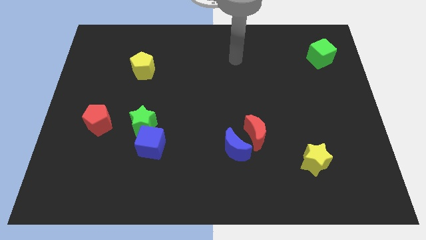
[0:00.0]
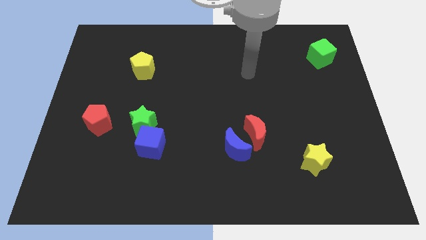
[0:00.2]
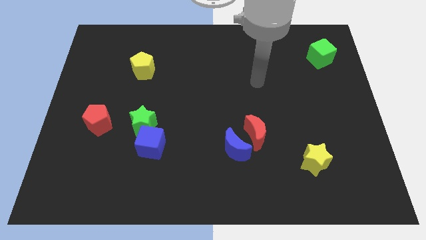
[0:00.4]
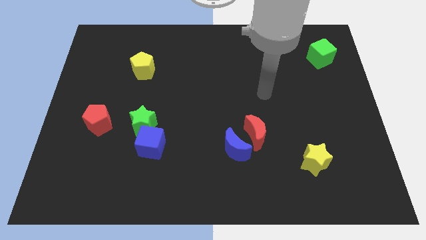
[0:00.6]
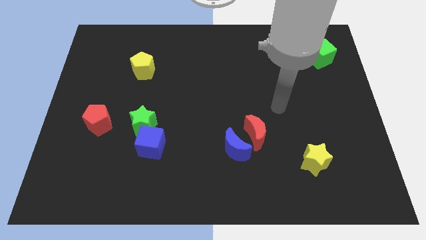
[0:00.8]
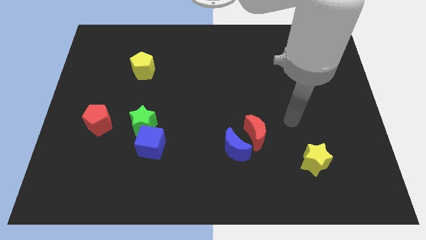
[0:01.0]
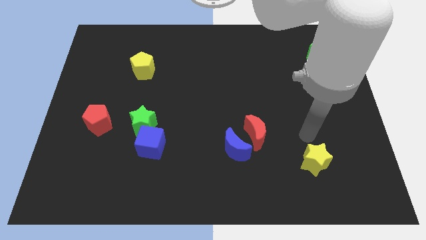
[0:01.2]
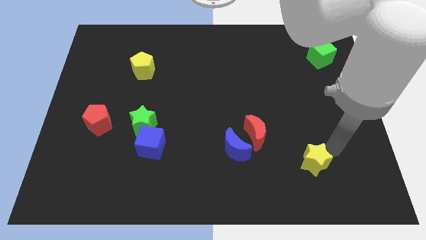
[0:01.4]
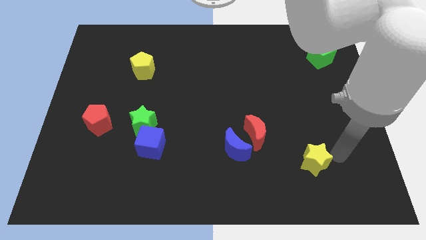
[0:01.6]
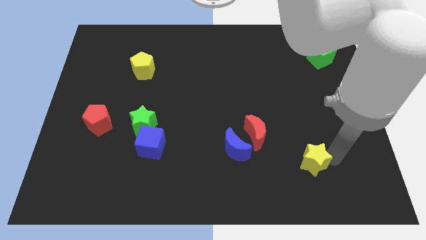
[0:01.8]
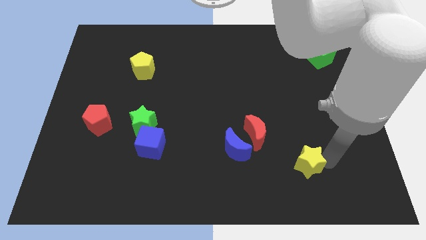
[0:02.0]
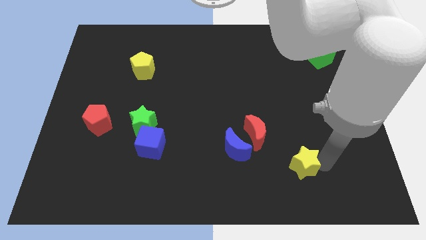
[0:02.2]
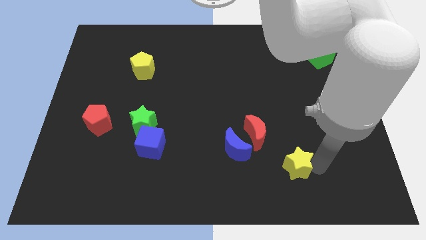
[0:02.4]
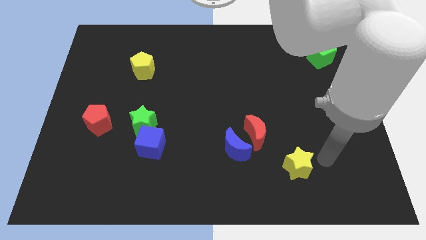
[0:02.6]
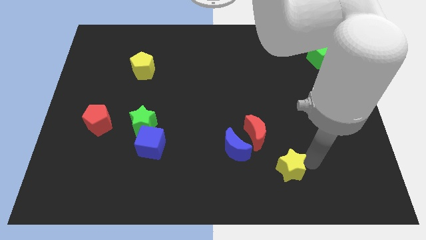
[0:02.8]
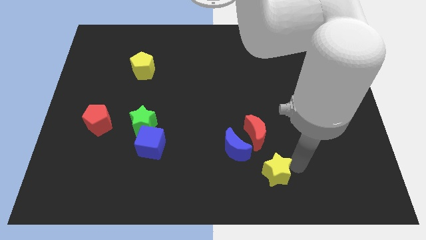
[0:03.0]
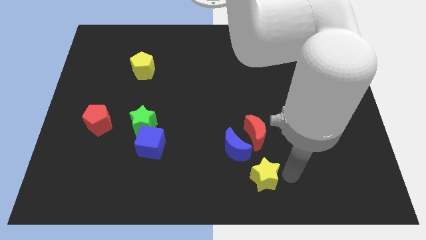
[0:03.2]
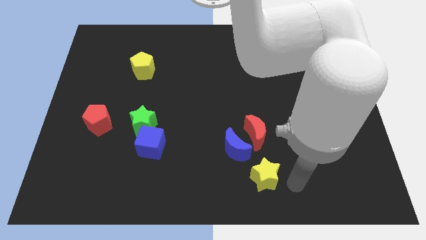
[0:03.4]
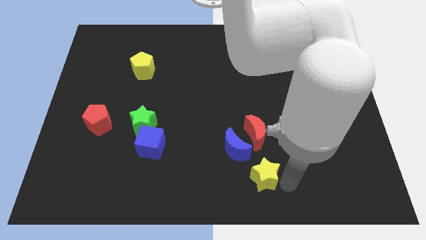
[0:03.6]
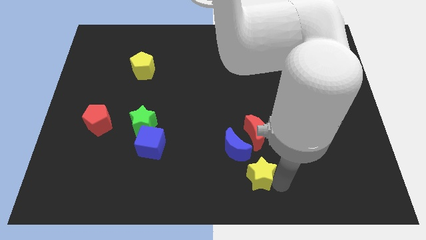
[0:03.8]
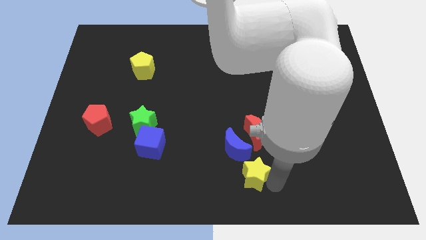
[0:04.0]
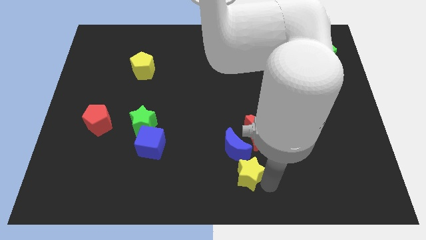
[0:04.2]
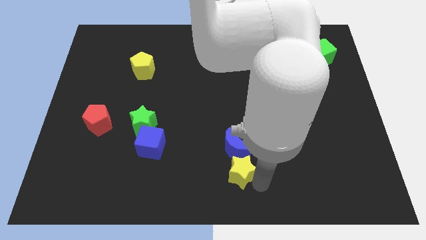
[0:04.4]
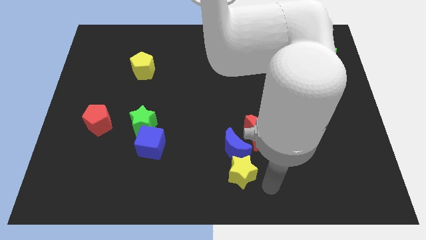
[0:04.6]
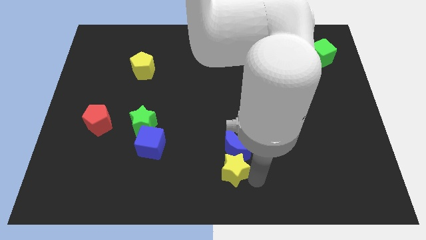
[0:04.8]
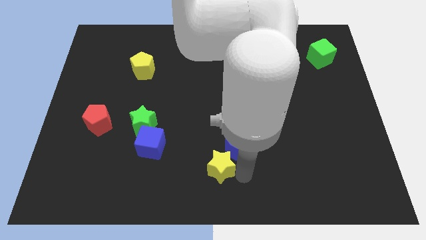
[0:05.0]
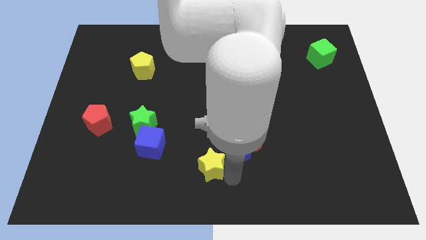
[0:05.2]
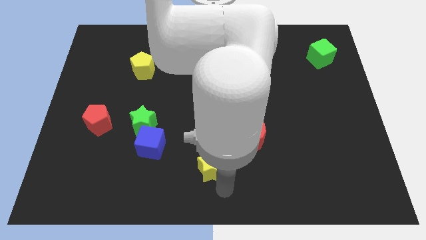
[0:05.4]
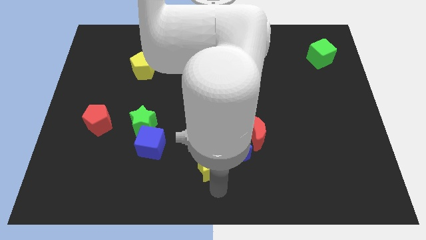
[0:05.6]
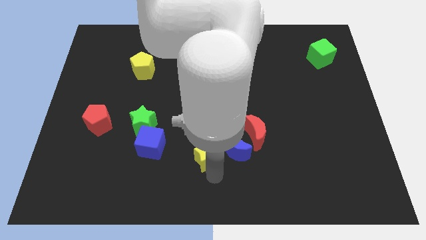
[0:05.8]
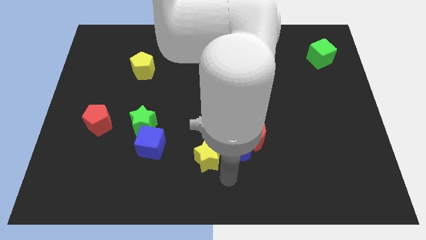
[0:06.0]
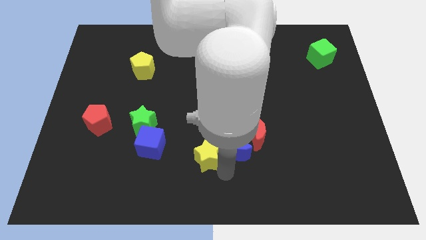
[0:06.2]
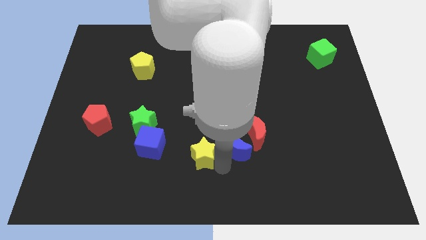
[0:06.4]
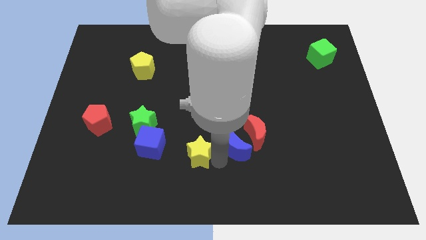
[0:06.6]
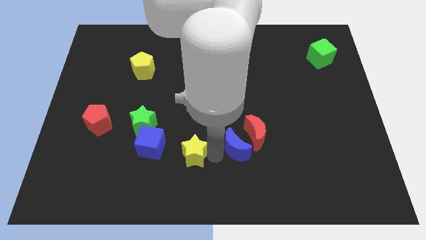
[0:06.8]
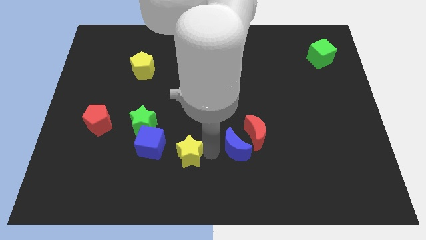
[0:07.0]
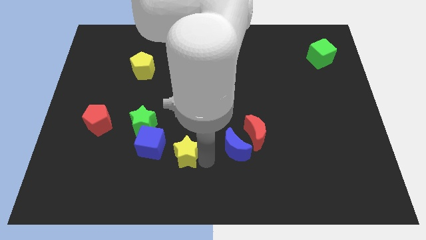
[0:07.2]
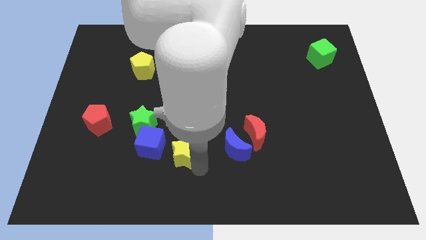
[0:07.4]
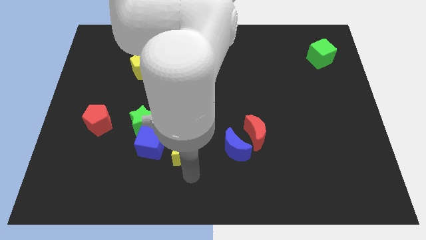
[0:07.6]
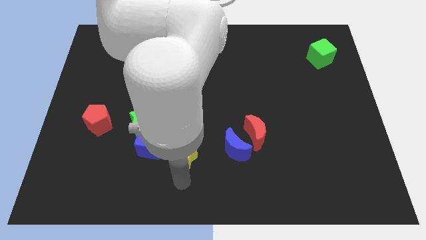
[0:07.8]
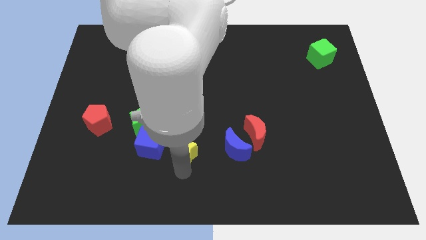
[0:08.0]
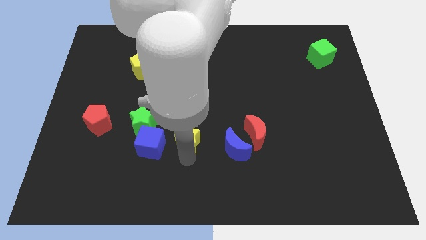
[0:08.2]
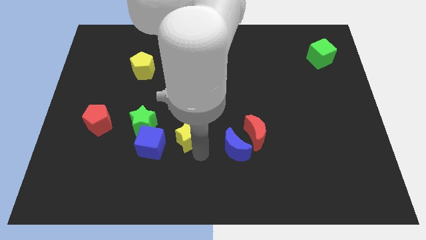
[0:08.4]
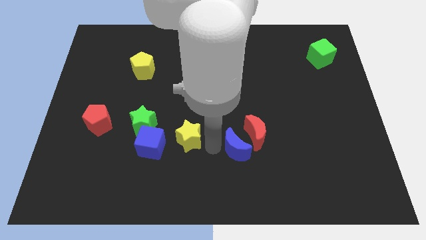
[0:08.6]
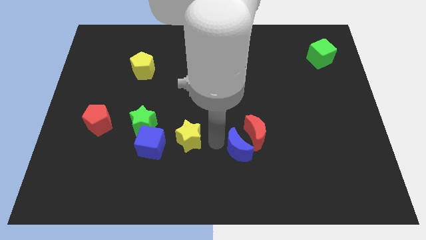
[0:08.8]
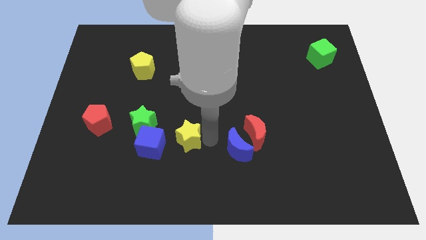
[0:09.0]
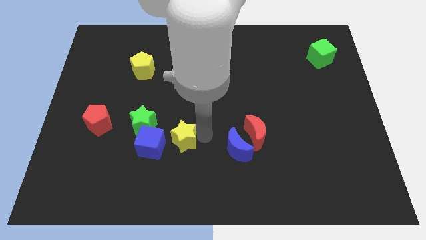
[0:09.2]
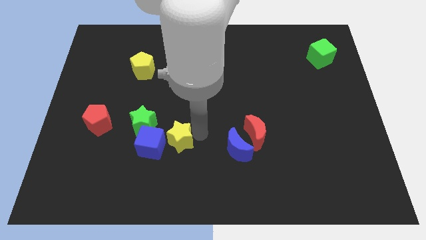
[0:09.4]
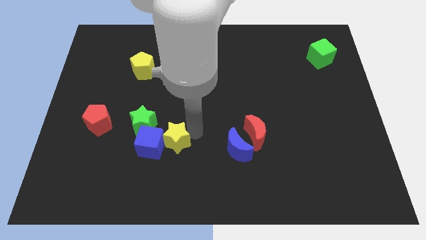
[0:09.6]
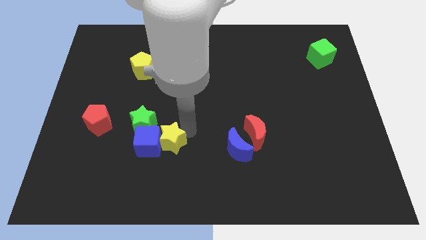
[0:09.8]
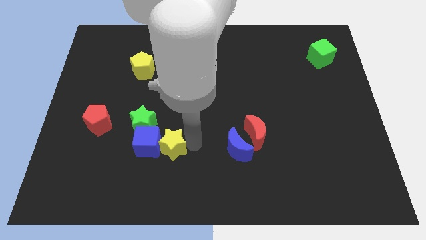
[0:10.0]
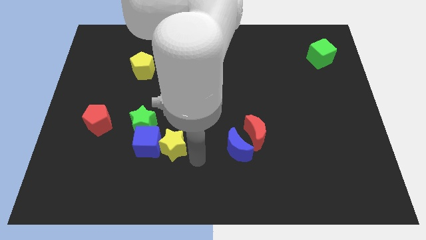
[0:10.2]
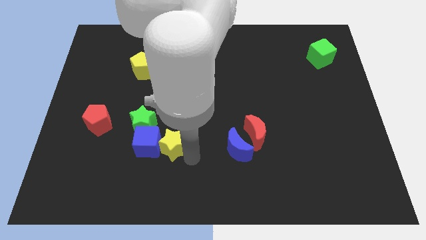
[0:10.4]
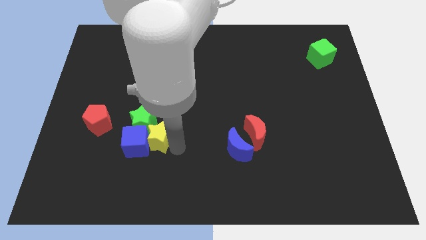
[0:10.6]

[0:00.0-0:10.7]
push the yellow star close to the green star

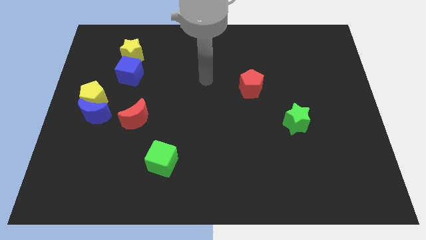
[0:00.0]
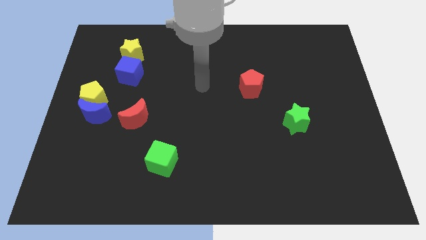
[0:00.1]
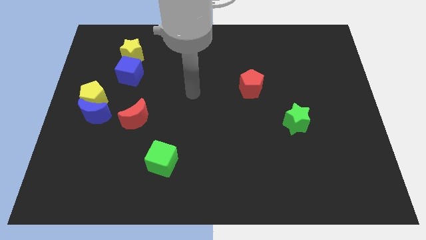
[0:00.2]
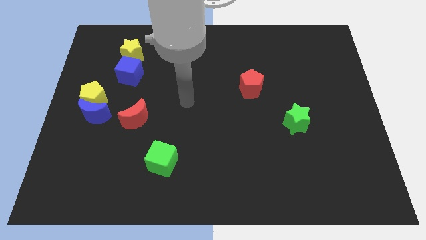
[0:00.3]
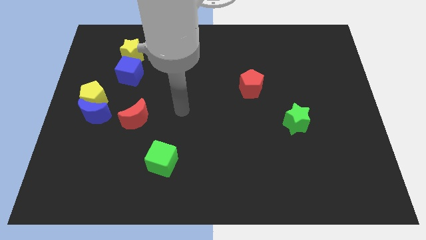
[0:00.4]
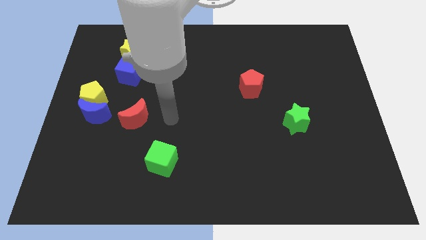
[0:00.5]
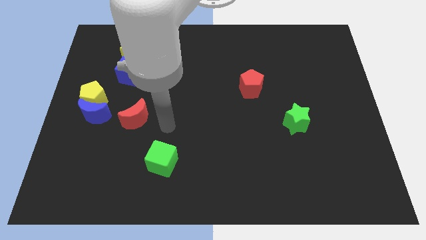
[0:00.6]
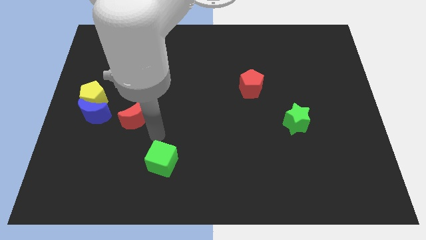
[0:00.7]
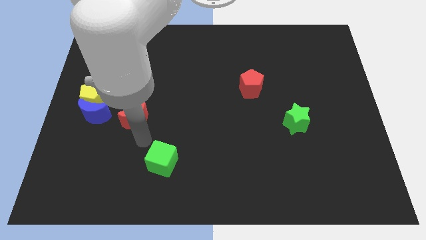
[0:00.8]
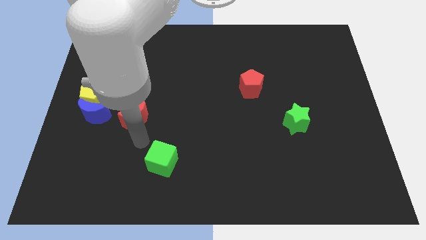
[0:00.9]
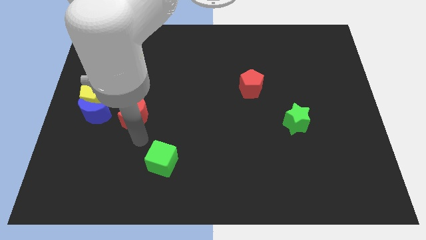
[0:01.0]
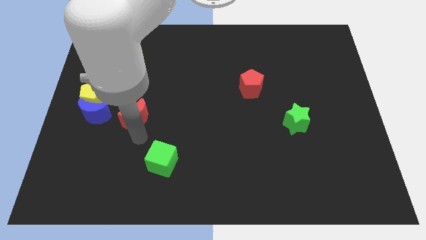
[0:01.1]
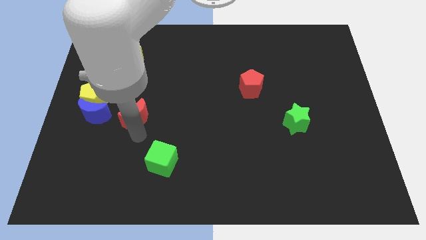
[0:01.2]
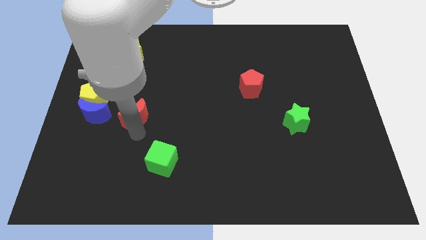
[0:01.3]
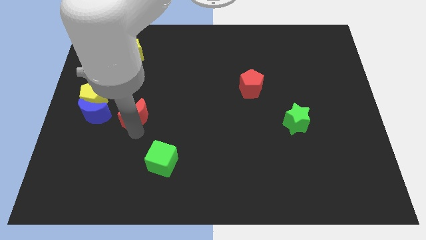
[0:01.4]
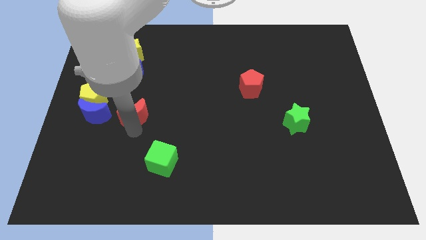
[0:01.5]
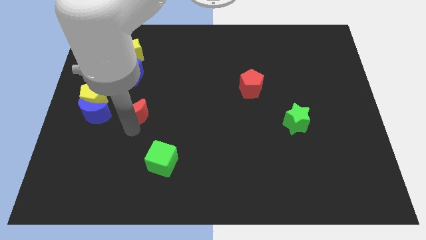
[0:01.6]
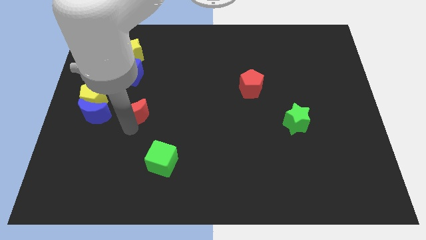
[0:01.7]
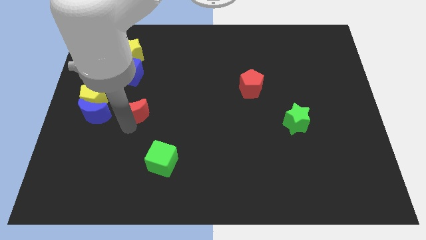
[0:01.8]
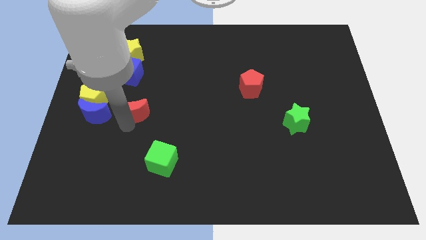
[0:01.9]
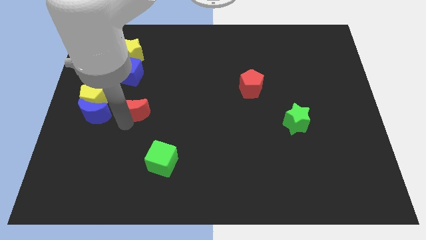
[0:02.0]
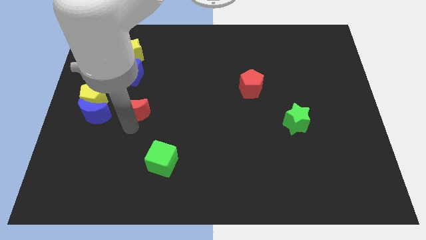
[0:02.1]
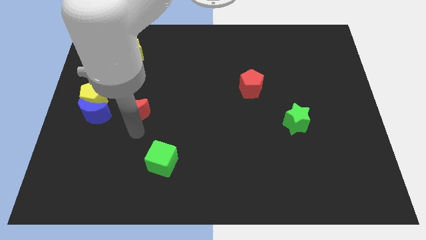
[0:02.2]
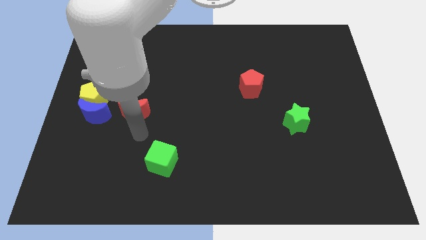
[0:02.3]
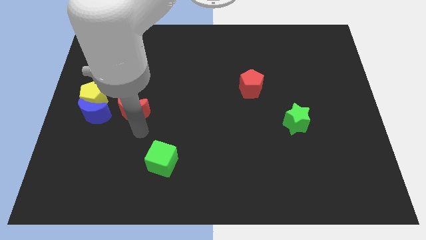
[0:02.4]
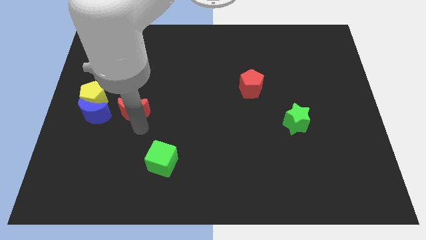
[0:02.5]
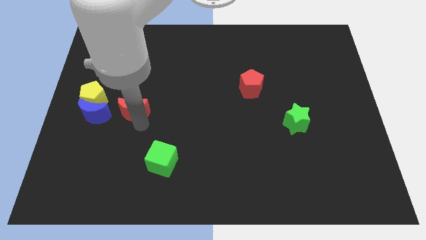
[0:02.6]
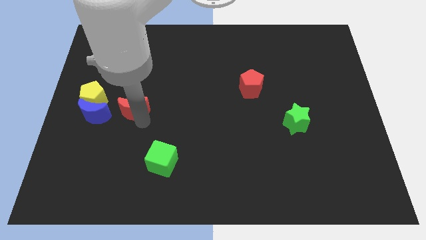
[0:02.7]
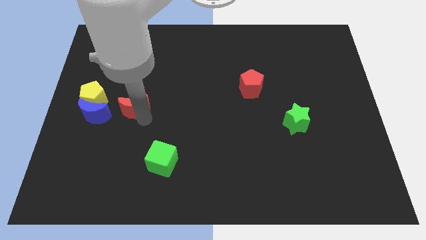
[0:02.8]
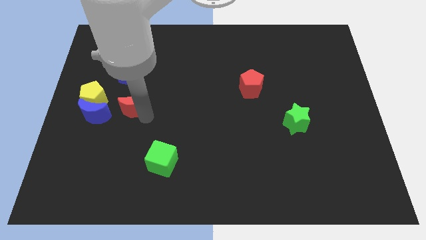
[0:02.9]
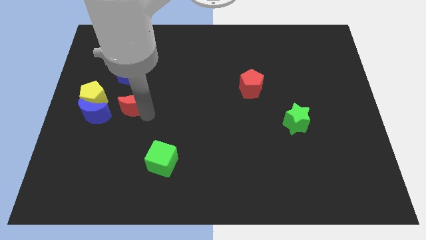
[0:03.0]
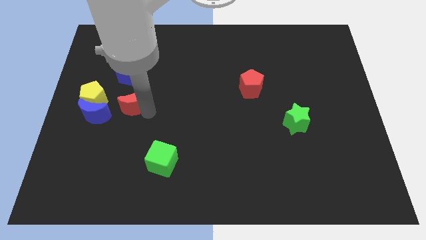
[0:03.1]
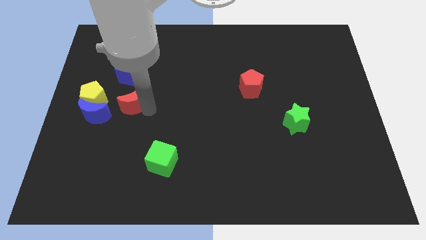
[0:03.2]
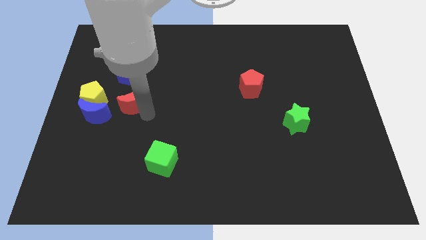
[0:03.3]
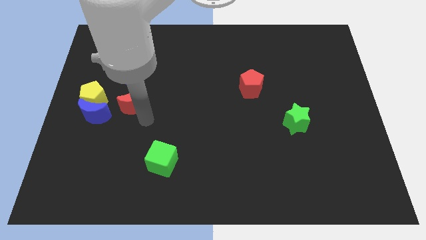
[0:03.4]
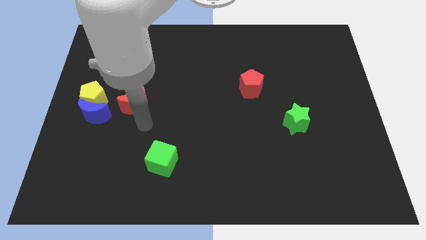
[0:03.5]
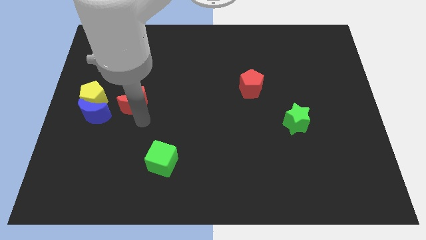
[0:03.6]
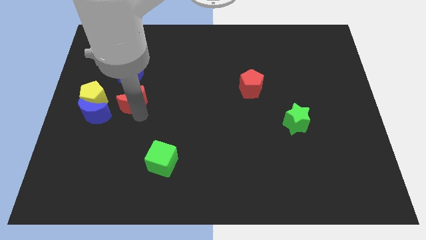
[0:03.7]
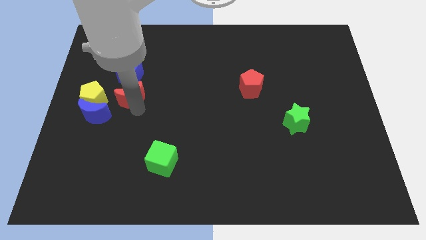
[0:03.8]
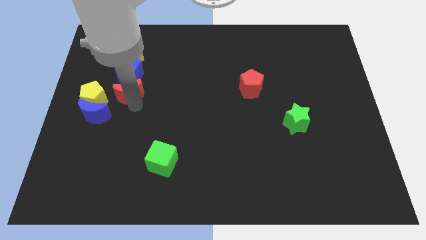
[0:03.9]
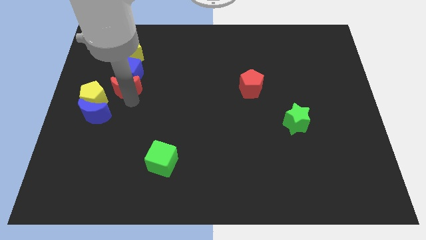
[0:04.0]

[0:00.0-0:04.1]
put the red moon next to the blue cube
